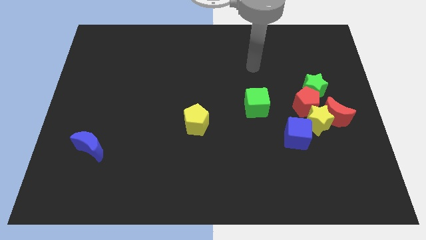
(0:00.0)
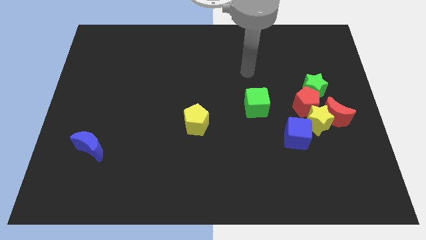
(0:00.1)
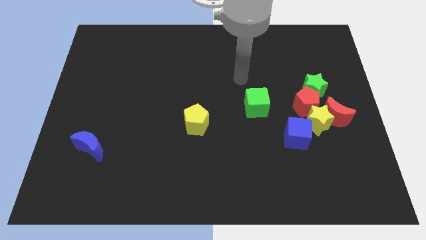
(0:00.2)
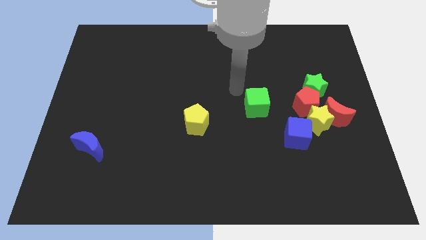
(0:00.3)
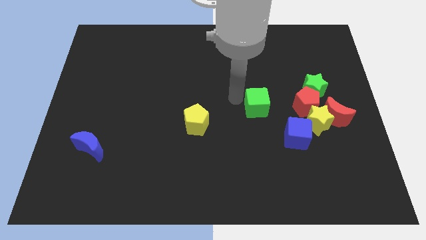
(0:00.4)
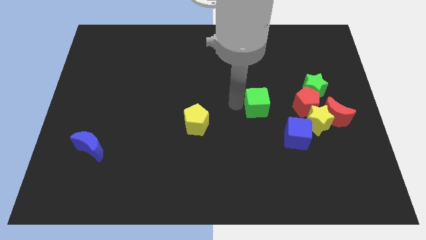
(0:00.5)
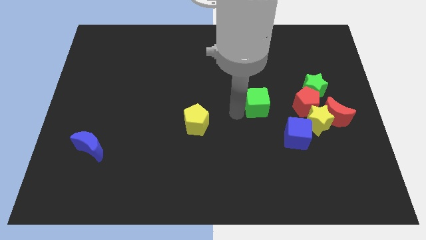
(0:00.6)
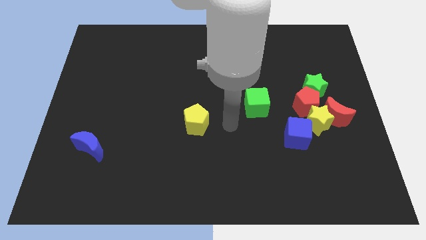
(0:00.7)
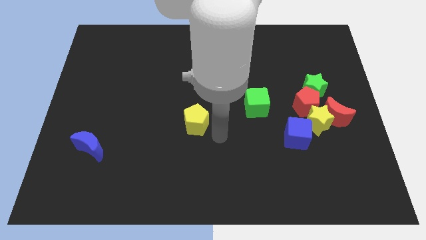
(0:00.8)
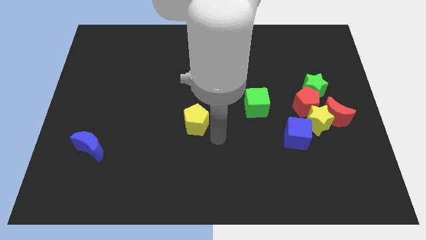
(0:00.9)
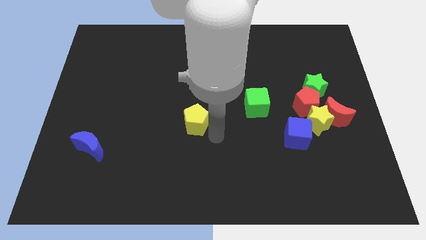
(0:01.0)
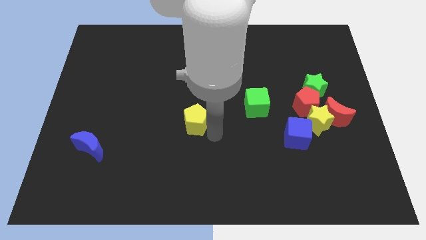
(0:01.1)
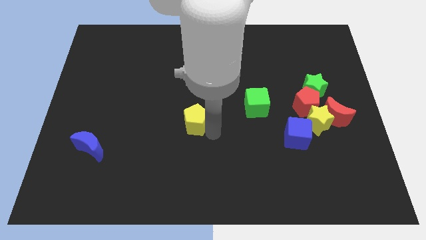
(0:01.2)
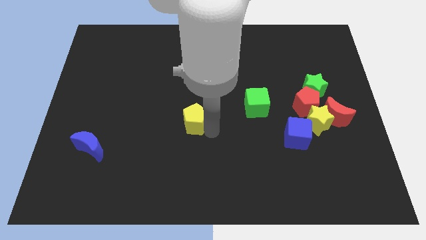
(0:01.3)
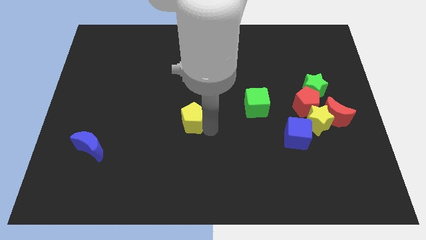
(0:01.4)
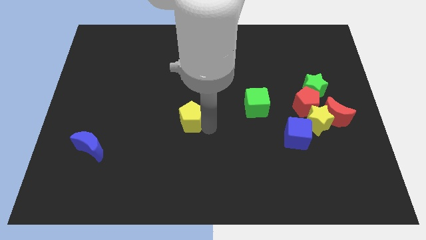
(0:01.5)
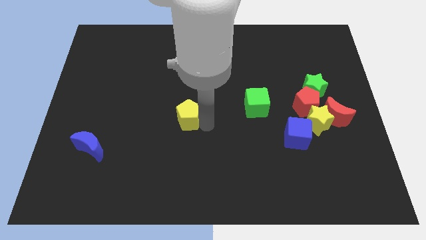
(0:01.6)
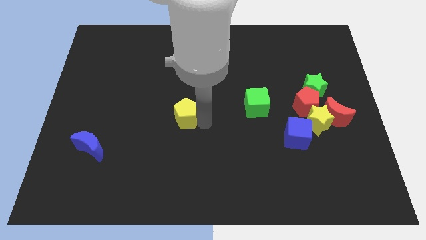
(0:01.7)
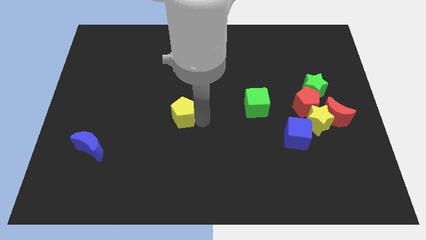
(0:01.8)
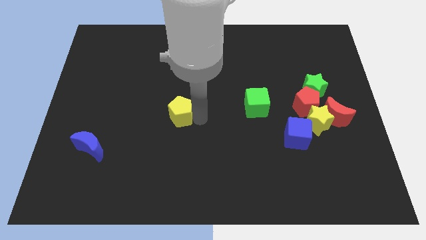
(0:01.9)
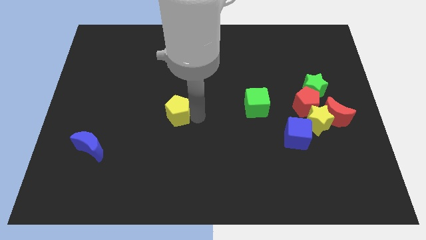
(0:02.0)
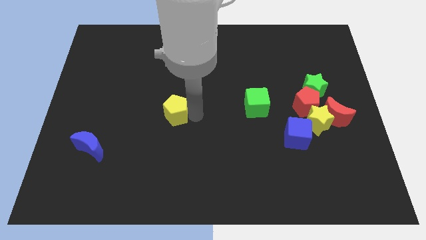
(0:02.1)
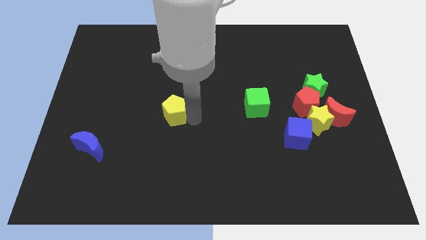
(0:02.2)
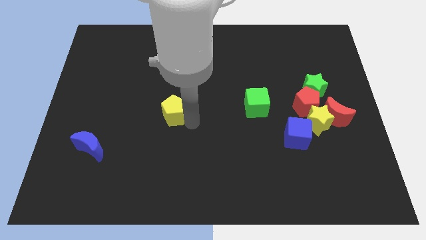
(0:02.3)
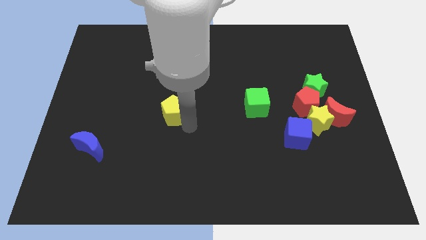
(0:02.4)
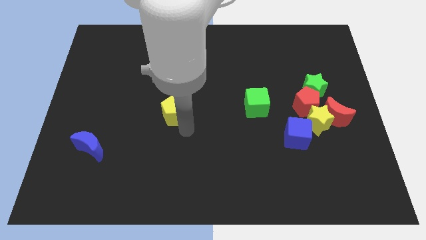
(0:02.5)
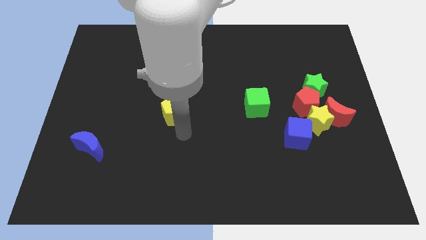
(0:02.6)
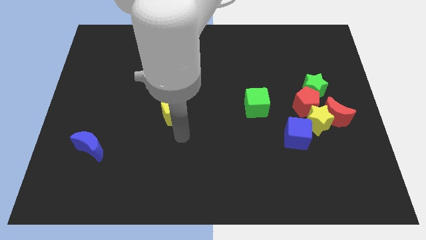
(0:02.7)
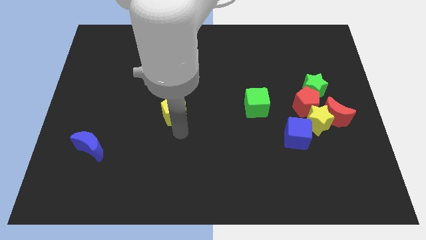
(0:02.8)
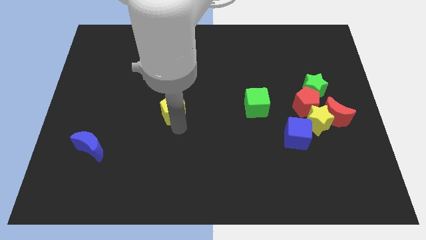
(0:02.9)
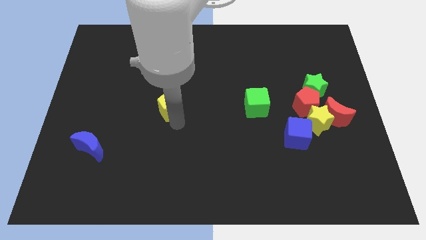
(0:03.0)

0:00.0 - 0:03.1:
slide the yellow pentagon a little bit upwards and left diagonally

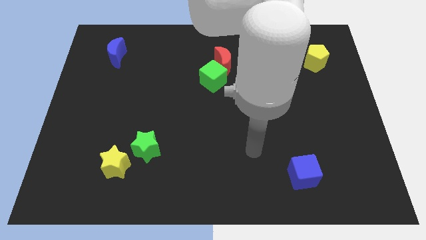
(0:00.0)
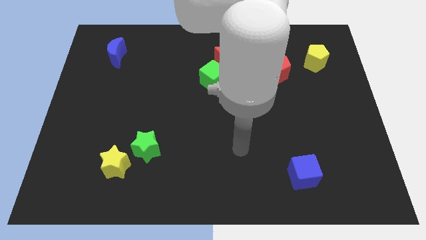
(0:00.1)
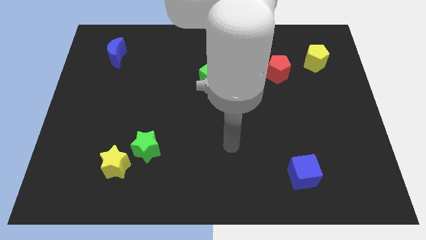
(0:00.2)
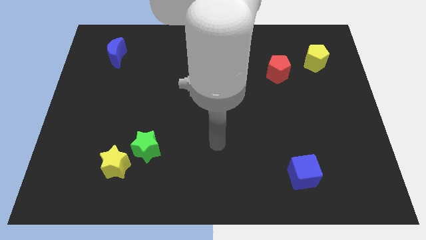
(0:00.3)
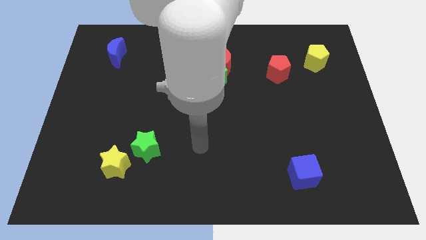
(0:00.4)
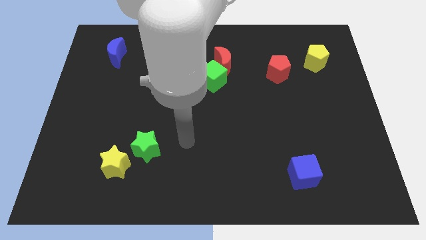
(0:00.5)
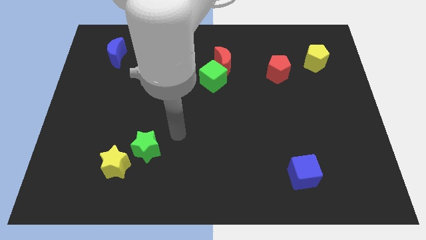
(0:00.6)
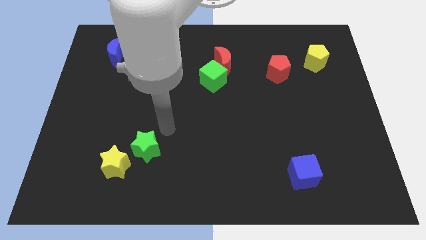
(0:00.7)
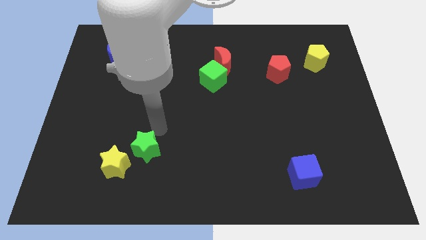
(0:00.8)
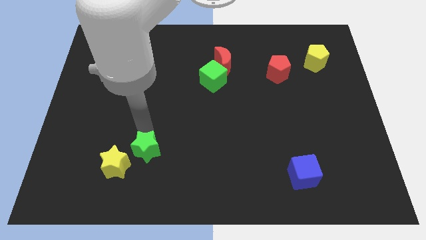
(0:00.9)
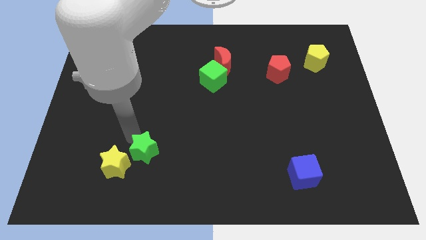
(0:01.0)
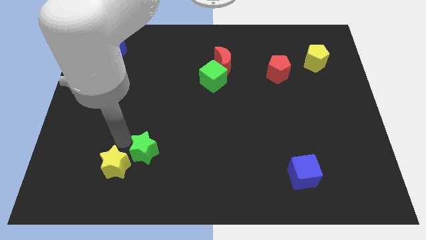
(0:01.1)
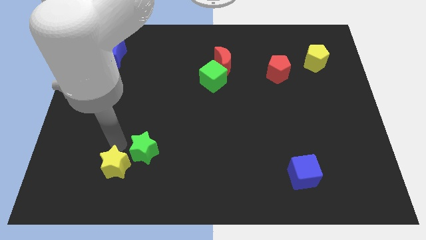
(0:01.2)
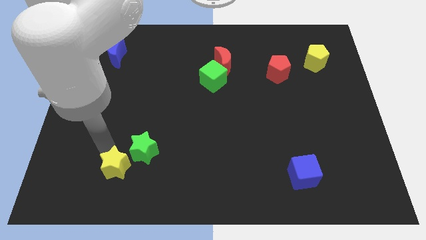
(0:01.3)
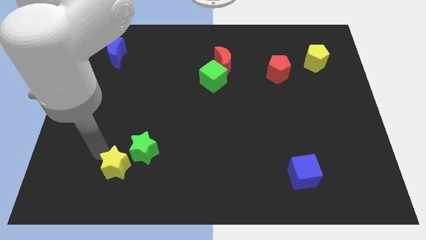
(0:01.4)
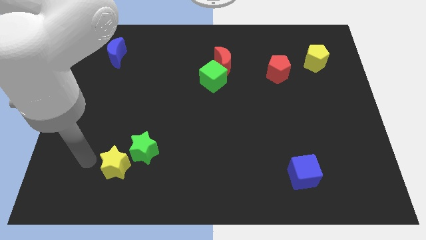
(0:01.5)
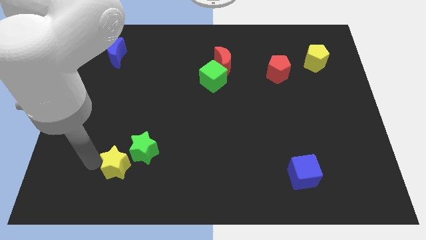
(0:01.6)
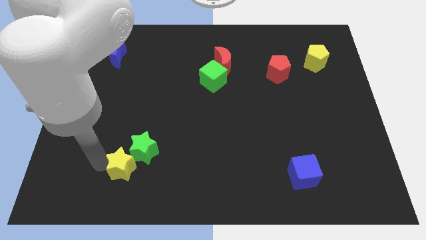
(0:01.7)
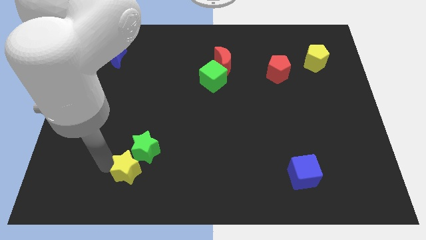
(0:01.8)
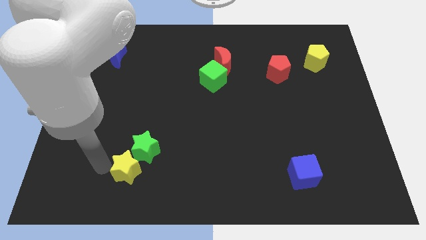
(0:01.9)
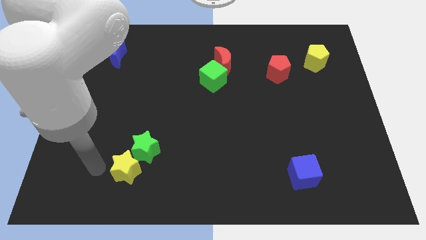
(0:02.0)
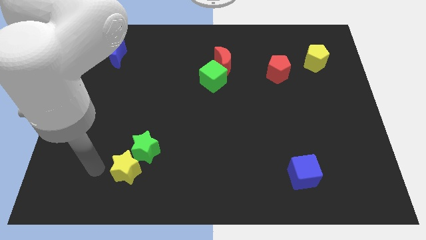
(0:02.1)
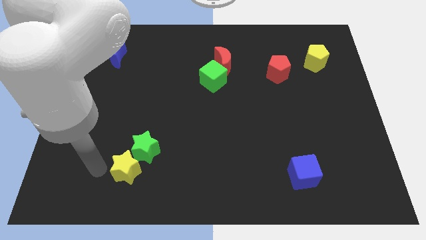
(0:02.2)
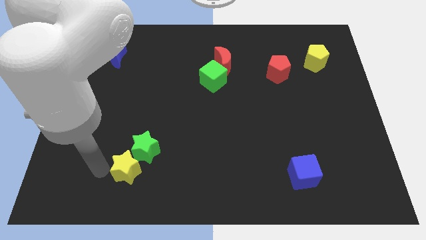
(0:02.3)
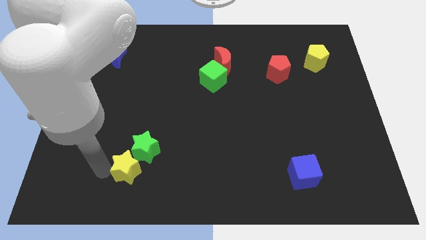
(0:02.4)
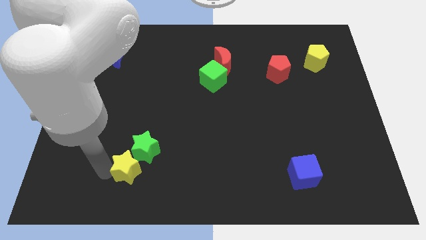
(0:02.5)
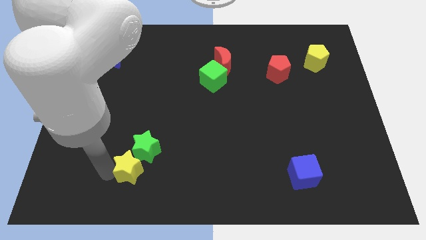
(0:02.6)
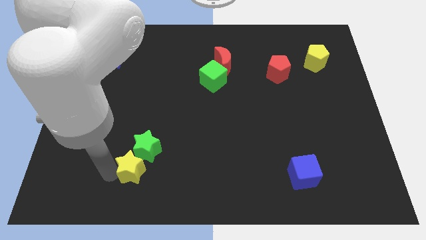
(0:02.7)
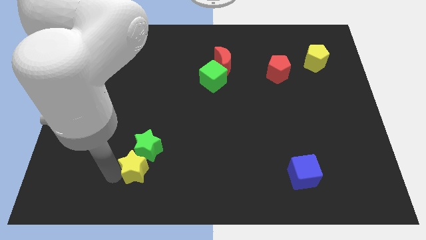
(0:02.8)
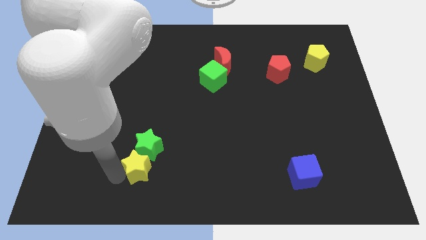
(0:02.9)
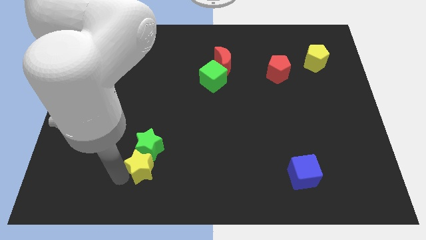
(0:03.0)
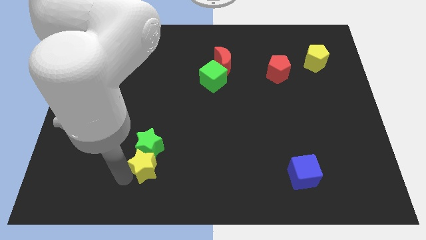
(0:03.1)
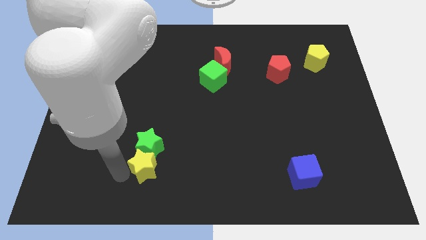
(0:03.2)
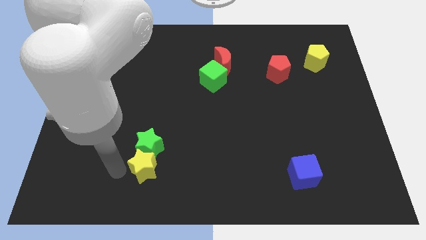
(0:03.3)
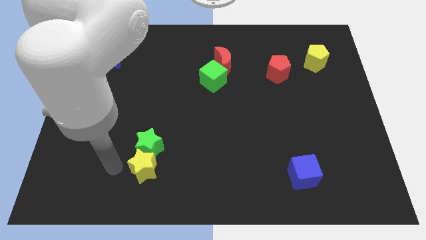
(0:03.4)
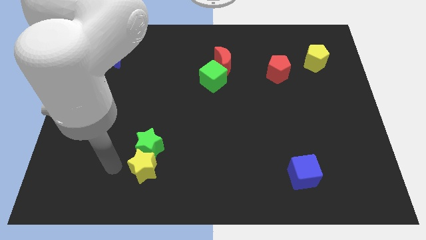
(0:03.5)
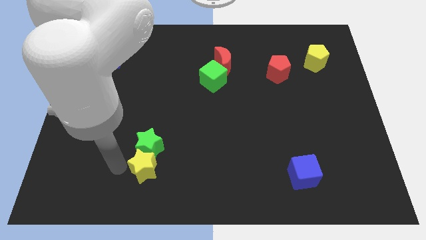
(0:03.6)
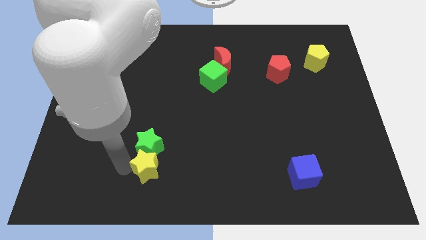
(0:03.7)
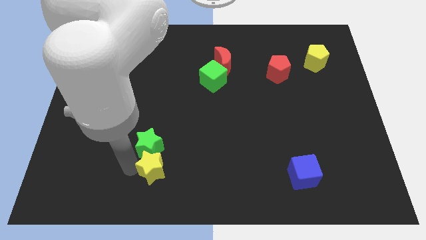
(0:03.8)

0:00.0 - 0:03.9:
slightly push the yellow star to the right

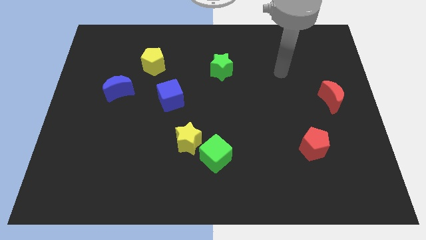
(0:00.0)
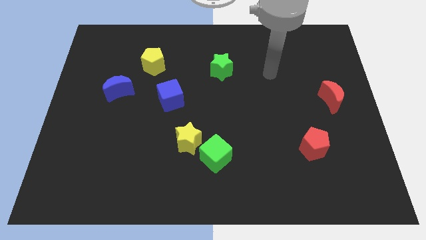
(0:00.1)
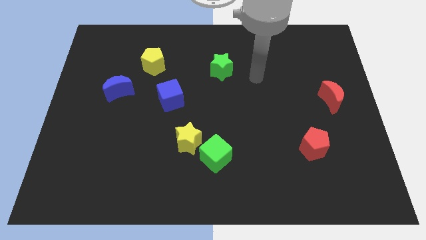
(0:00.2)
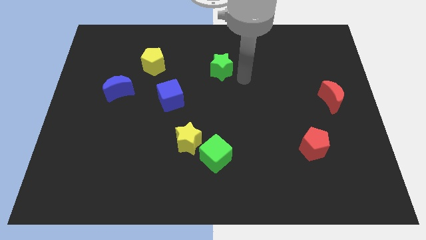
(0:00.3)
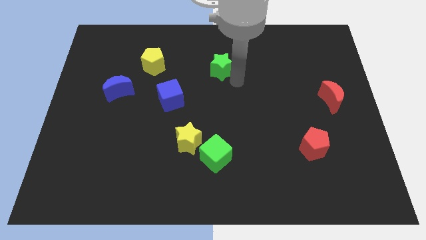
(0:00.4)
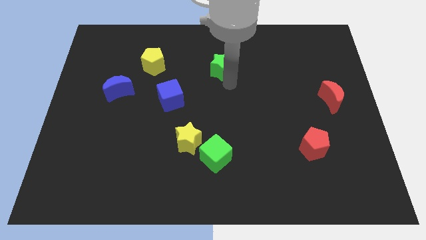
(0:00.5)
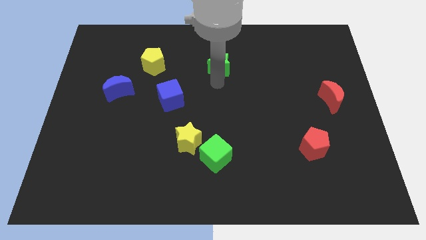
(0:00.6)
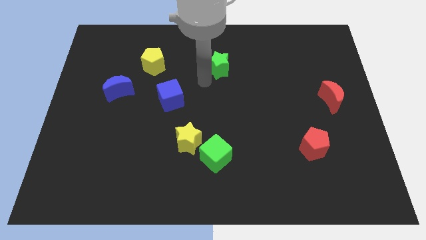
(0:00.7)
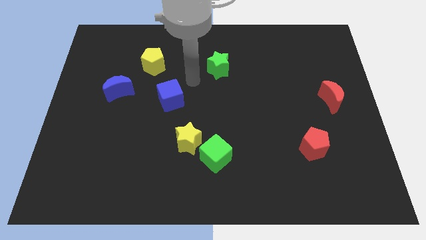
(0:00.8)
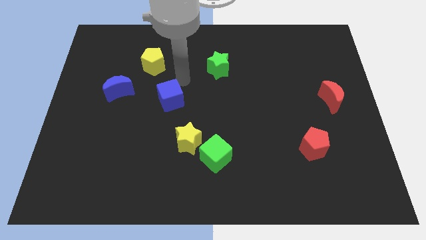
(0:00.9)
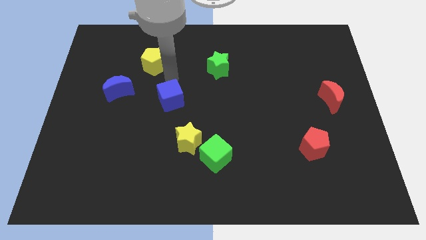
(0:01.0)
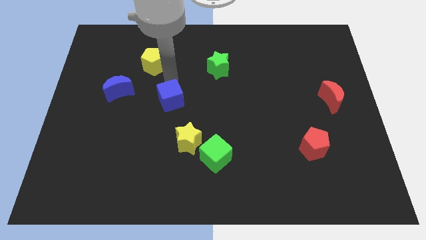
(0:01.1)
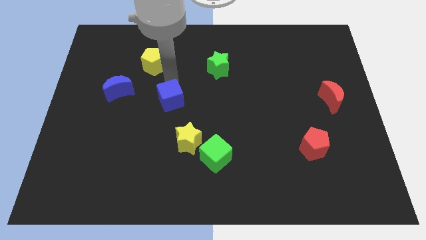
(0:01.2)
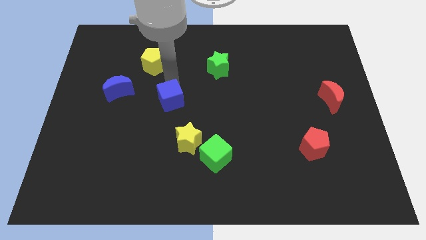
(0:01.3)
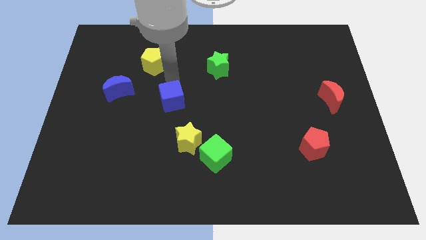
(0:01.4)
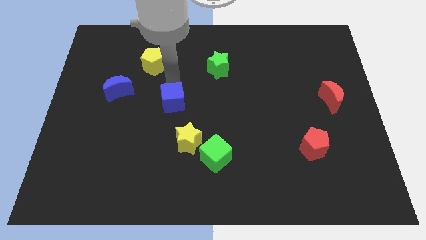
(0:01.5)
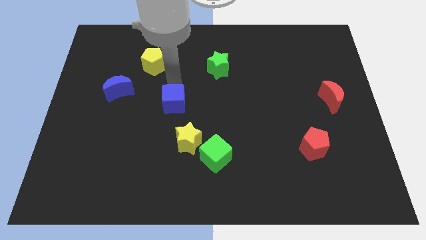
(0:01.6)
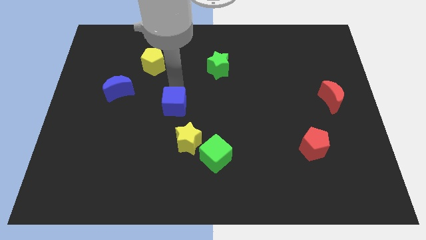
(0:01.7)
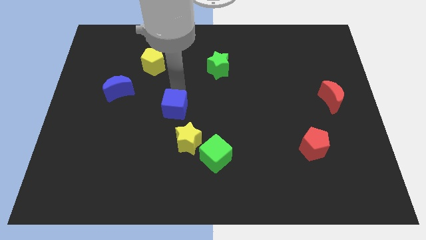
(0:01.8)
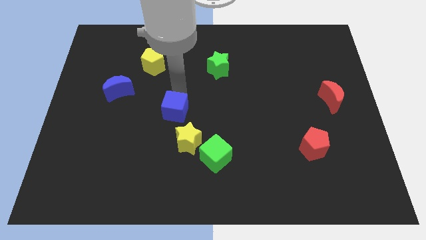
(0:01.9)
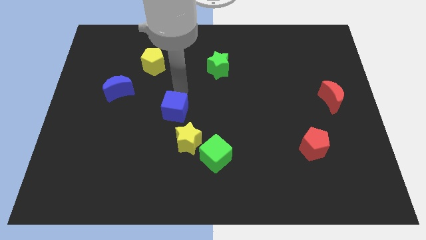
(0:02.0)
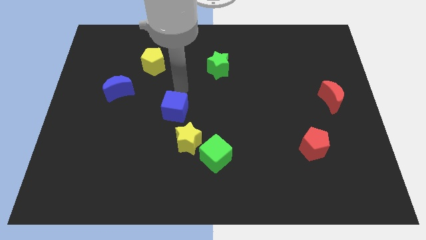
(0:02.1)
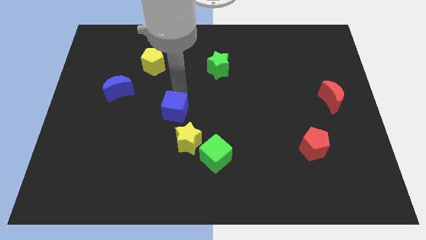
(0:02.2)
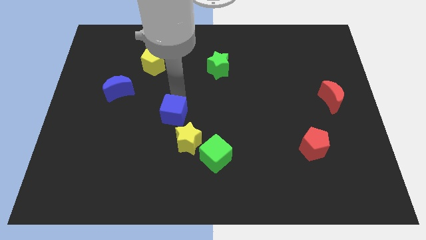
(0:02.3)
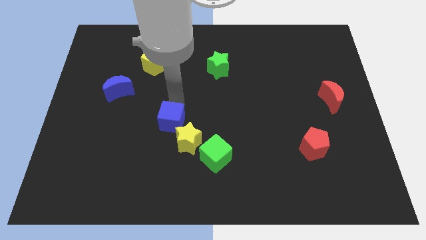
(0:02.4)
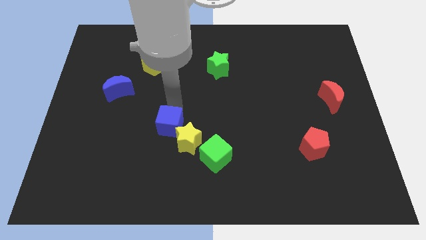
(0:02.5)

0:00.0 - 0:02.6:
slide the blue cube downwards a little bit
